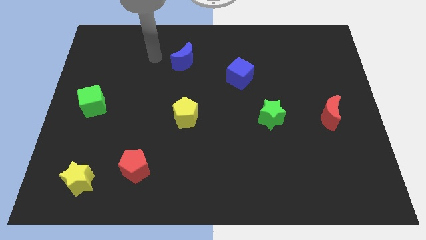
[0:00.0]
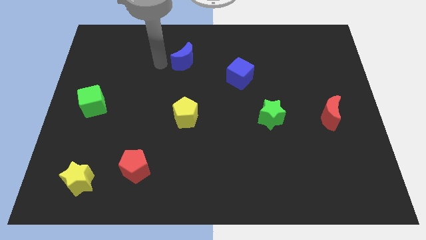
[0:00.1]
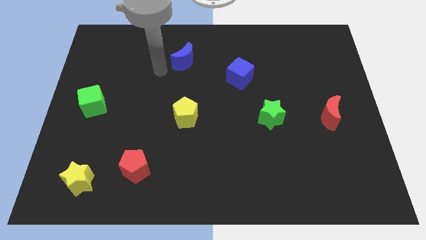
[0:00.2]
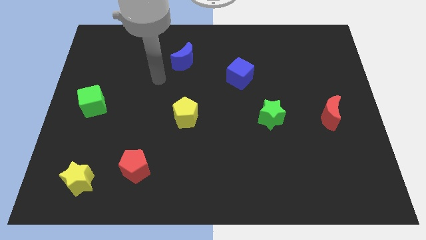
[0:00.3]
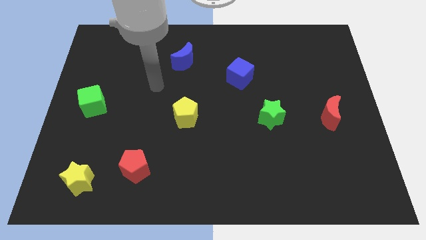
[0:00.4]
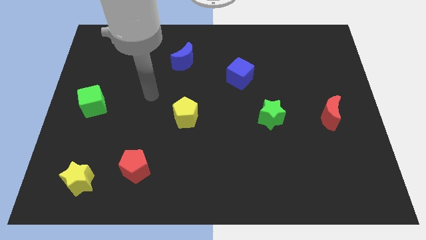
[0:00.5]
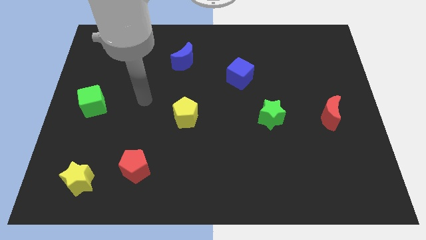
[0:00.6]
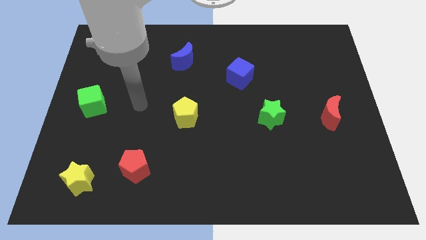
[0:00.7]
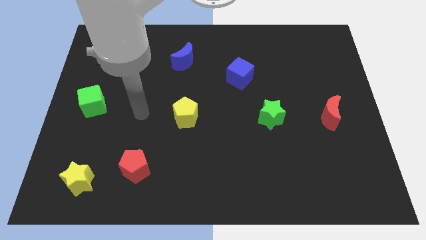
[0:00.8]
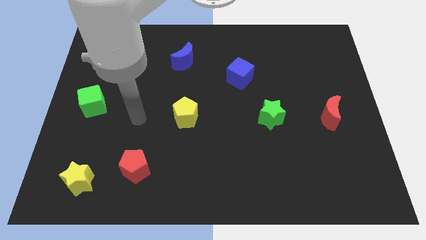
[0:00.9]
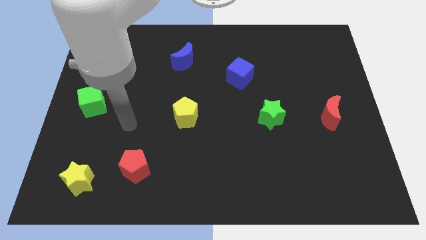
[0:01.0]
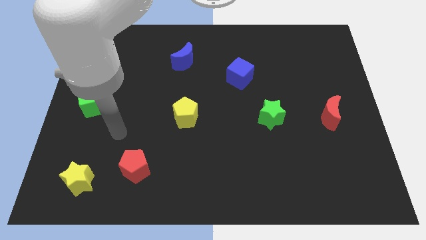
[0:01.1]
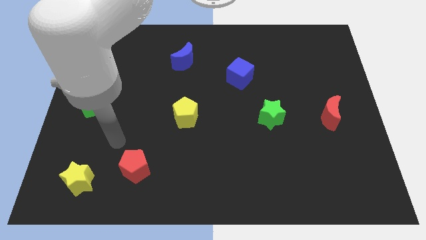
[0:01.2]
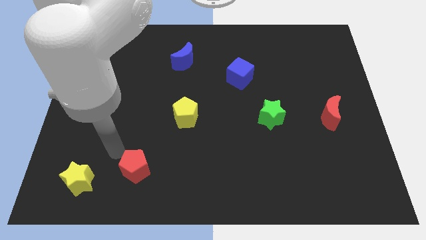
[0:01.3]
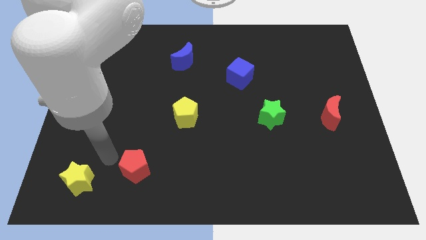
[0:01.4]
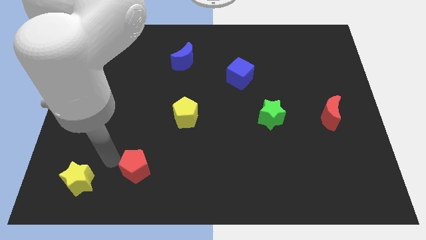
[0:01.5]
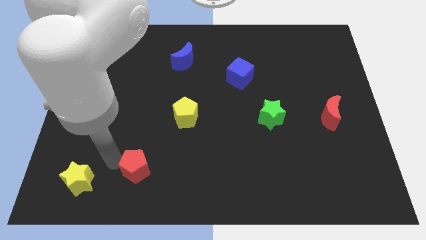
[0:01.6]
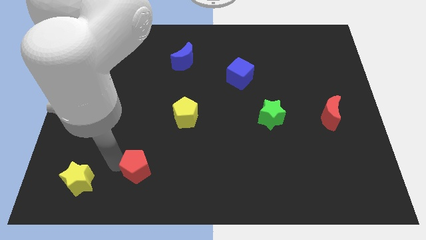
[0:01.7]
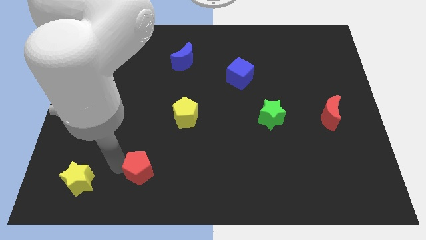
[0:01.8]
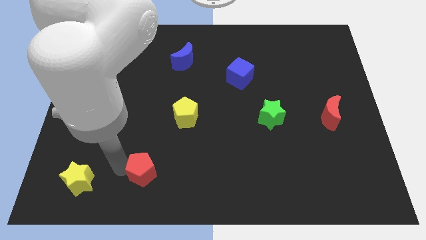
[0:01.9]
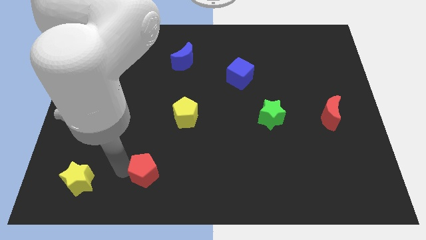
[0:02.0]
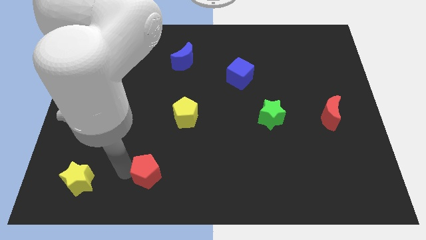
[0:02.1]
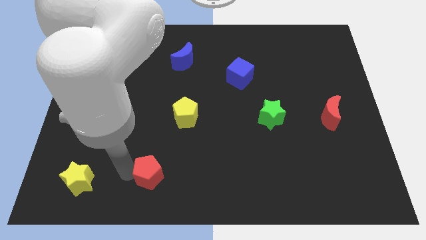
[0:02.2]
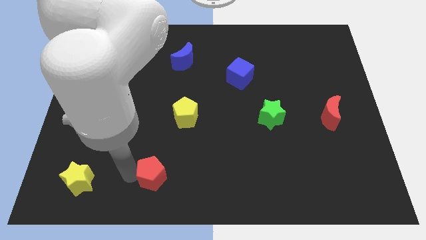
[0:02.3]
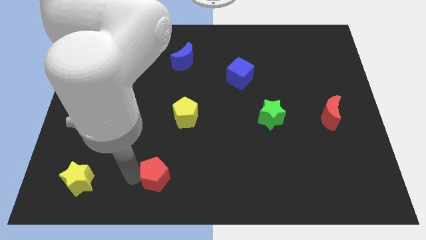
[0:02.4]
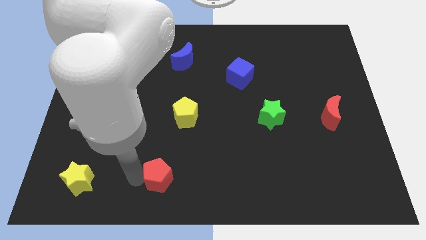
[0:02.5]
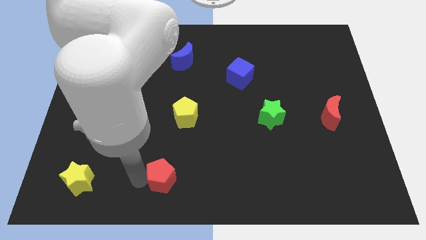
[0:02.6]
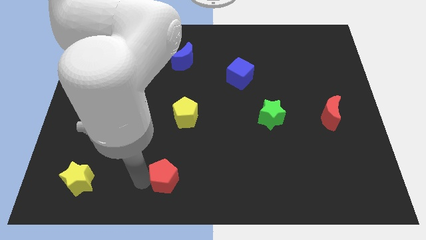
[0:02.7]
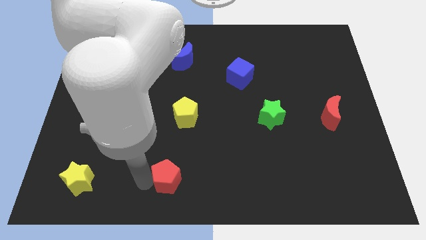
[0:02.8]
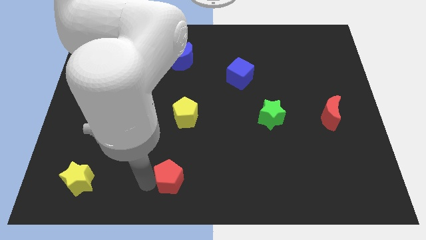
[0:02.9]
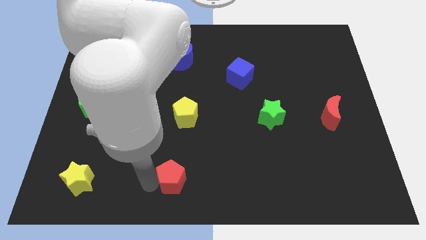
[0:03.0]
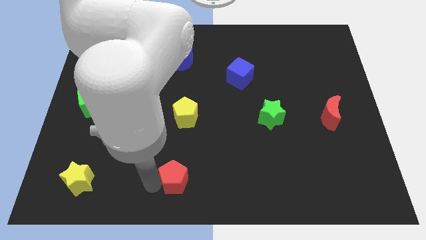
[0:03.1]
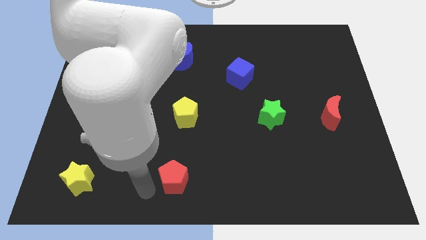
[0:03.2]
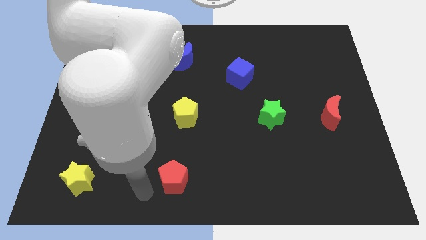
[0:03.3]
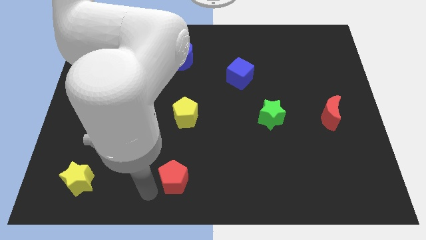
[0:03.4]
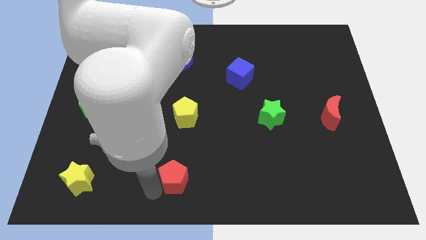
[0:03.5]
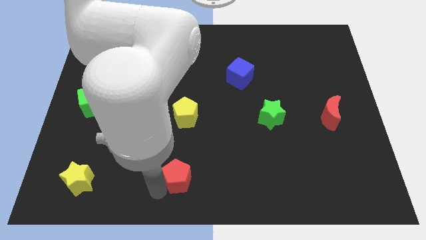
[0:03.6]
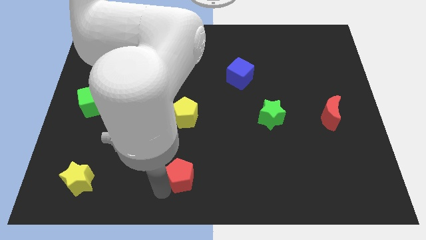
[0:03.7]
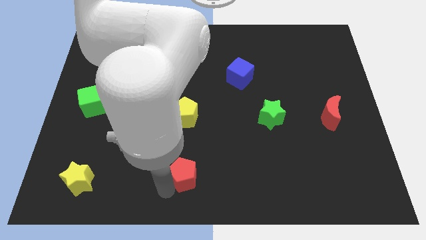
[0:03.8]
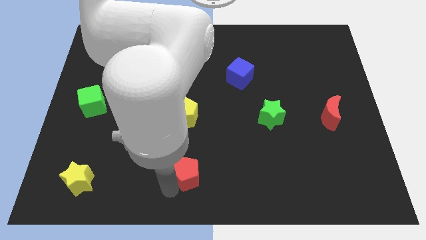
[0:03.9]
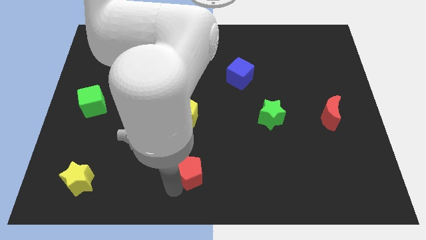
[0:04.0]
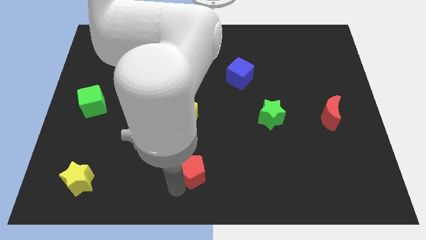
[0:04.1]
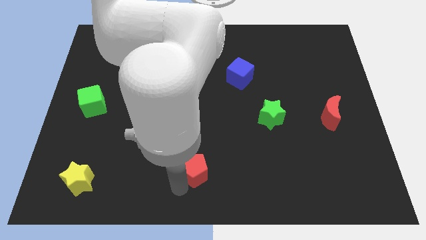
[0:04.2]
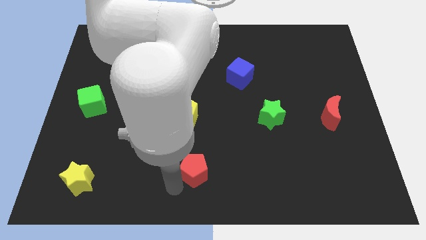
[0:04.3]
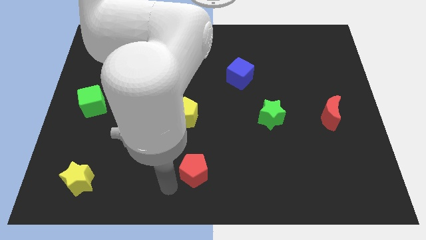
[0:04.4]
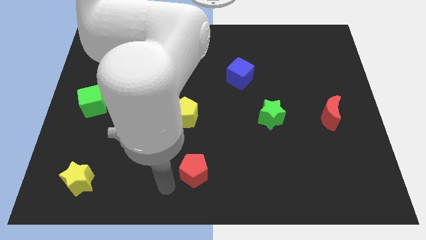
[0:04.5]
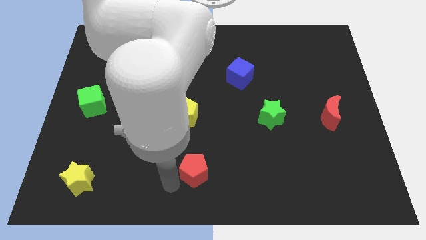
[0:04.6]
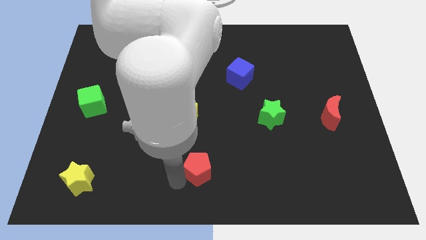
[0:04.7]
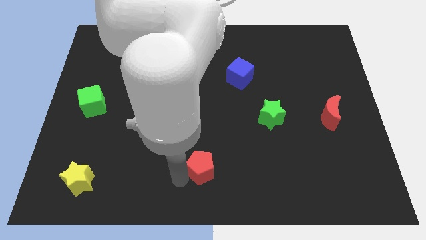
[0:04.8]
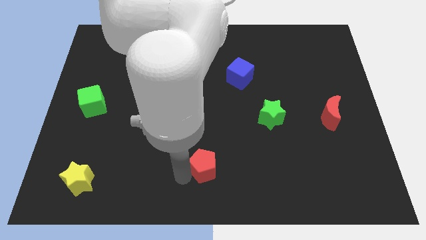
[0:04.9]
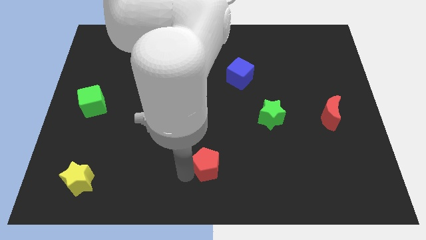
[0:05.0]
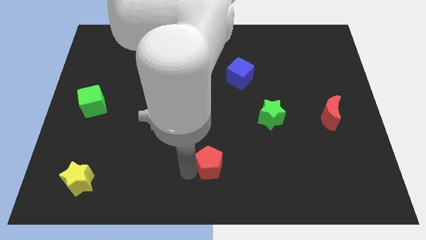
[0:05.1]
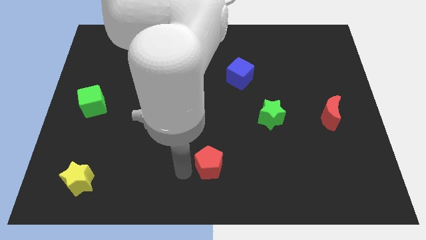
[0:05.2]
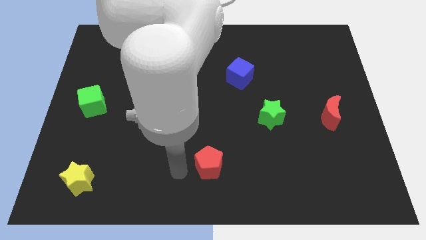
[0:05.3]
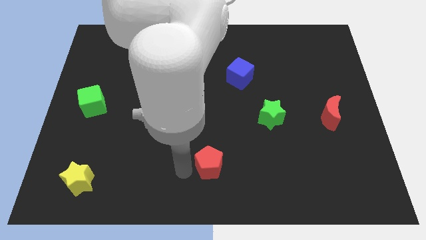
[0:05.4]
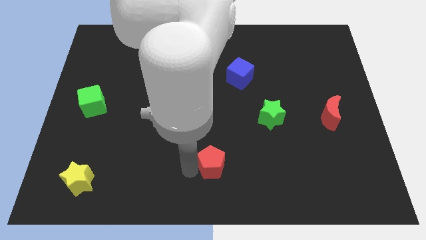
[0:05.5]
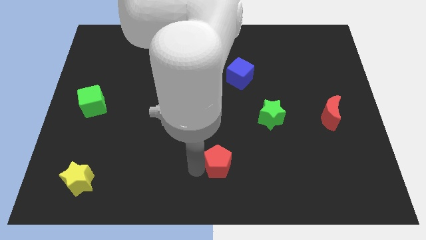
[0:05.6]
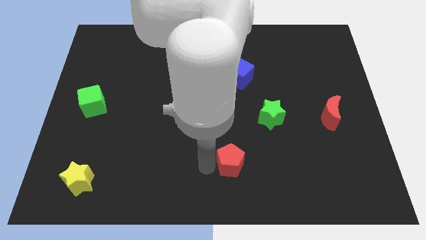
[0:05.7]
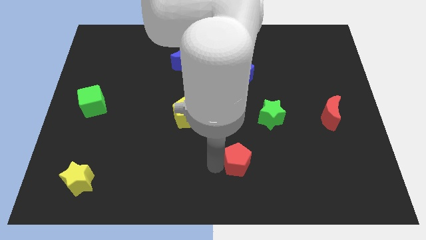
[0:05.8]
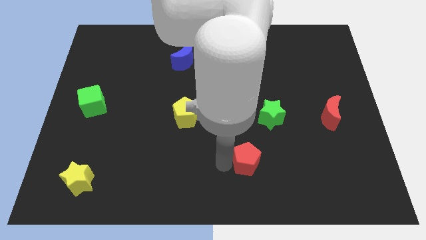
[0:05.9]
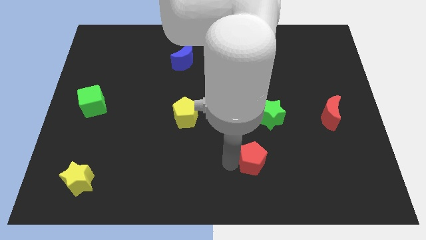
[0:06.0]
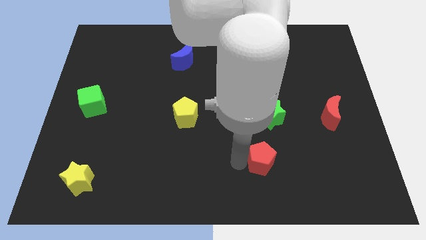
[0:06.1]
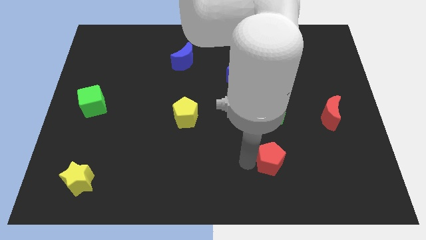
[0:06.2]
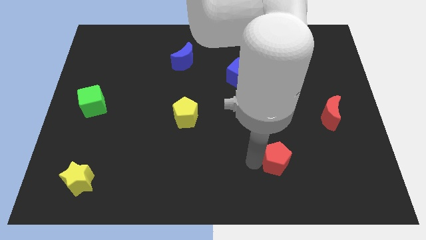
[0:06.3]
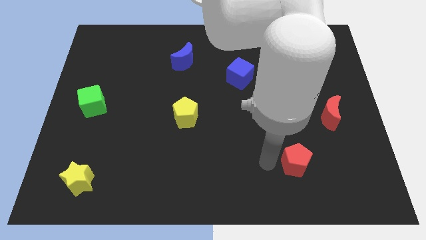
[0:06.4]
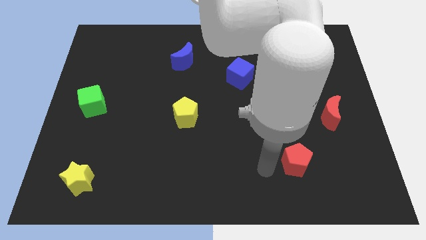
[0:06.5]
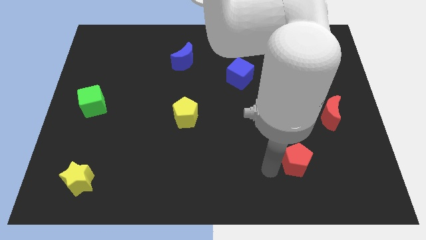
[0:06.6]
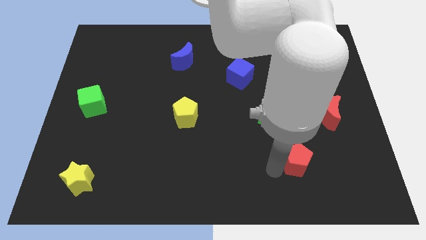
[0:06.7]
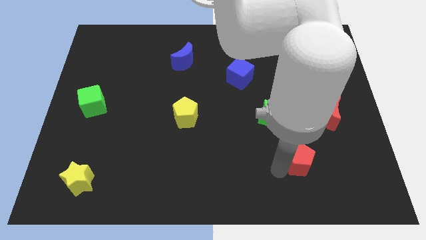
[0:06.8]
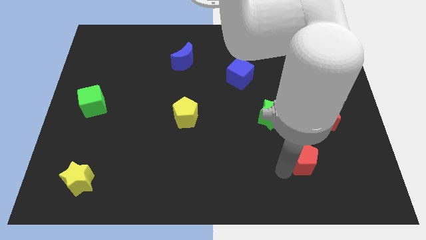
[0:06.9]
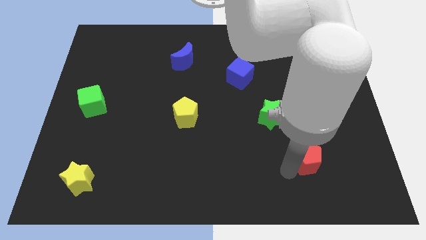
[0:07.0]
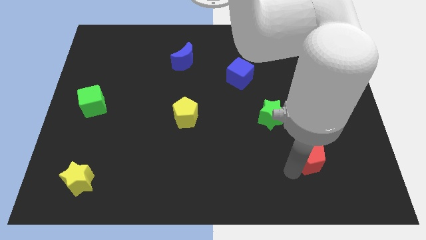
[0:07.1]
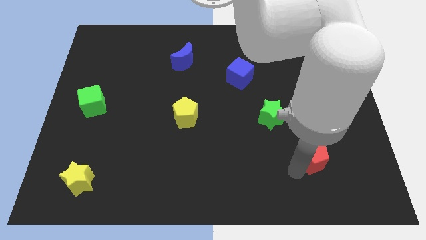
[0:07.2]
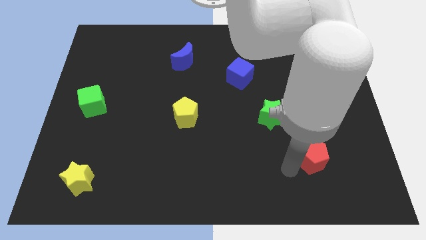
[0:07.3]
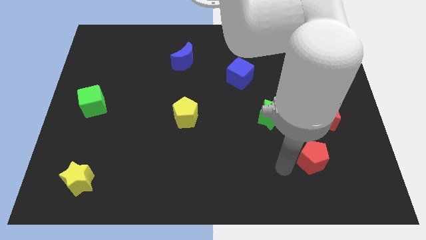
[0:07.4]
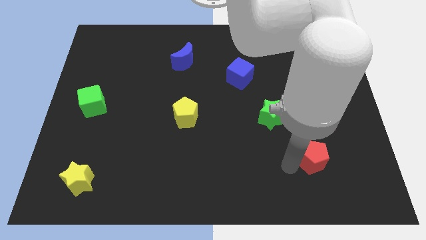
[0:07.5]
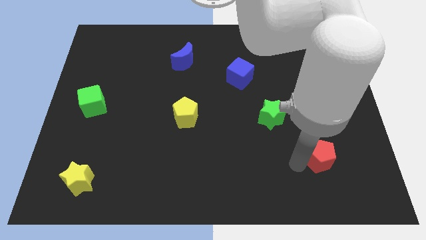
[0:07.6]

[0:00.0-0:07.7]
move the red pentagon below the red moon

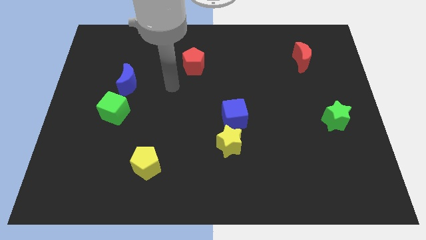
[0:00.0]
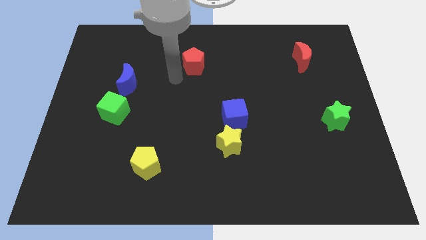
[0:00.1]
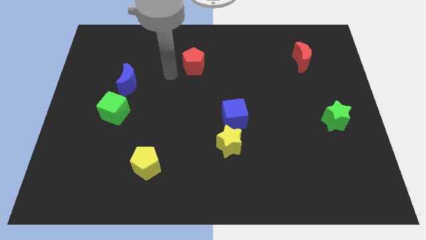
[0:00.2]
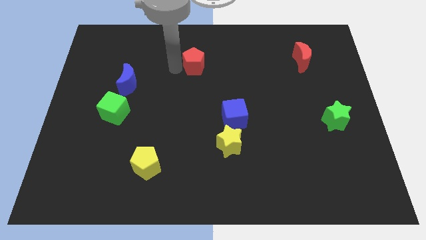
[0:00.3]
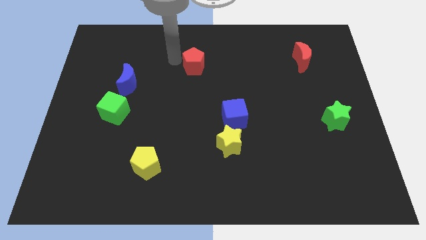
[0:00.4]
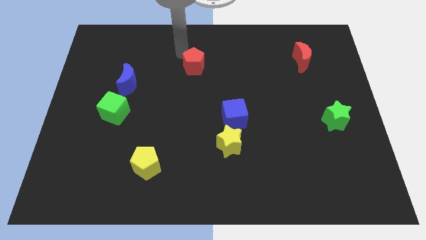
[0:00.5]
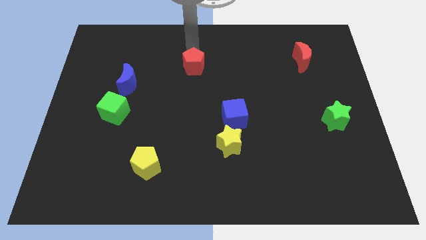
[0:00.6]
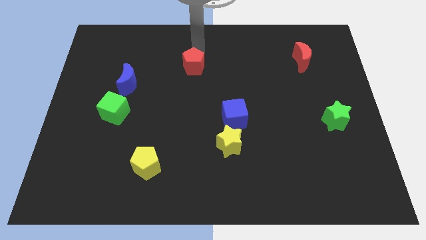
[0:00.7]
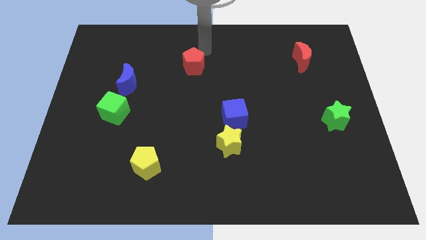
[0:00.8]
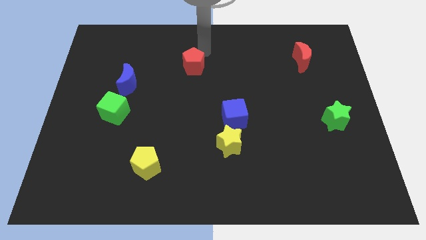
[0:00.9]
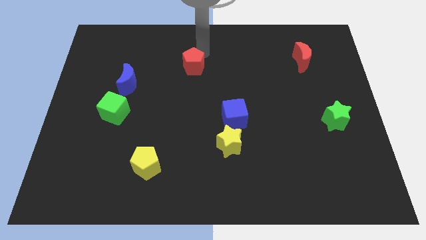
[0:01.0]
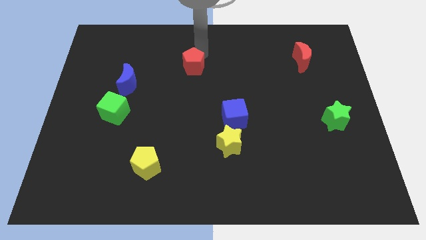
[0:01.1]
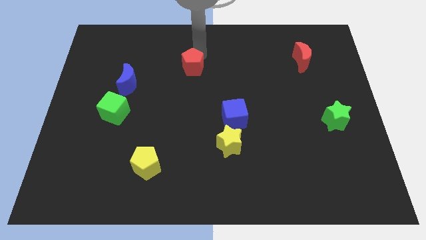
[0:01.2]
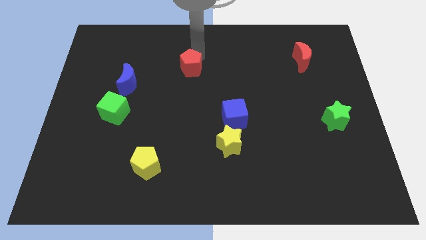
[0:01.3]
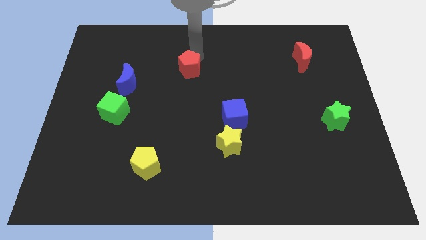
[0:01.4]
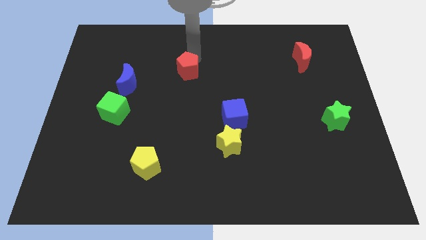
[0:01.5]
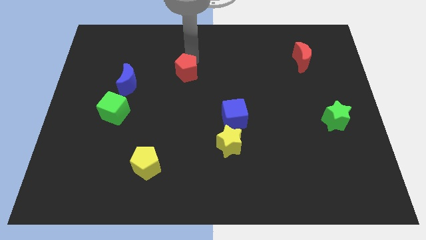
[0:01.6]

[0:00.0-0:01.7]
push the red pentagon to the right side of the blue moon
